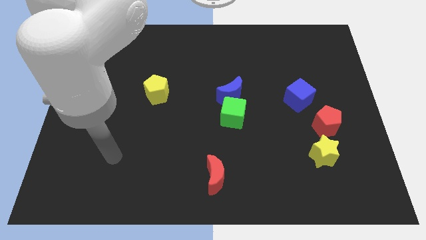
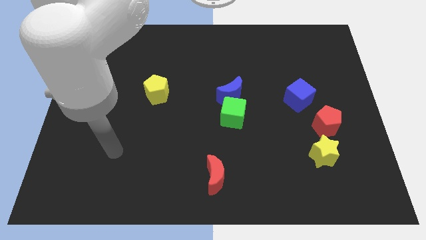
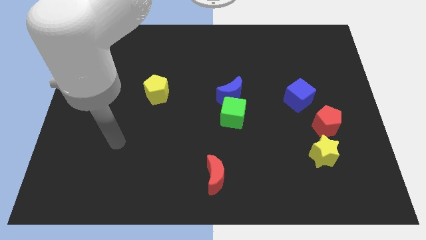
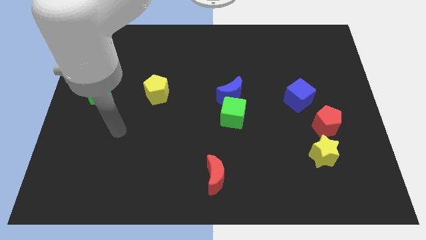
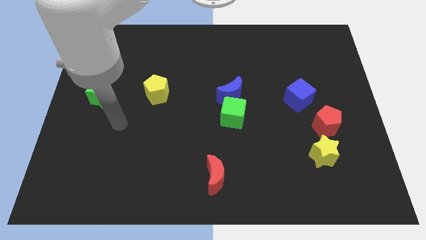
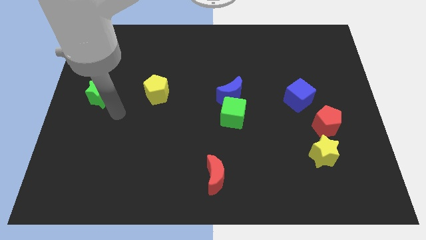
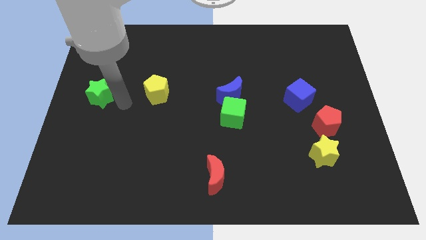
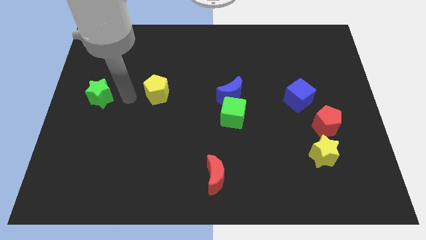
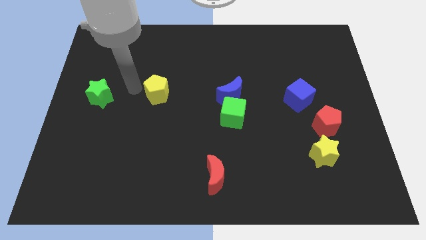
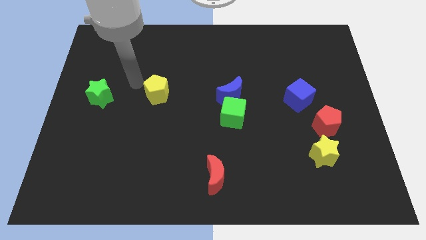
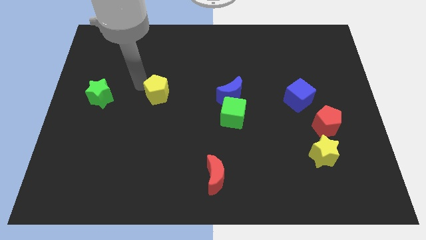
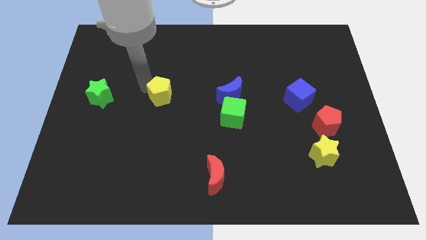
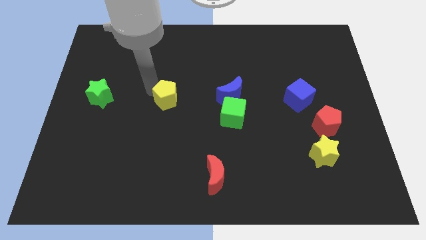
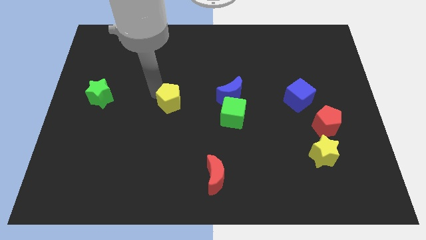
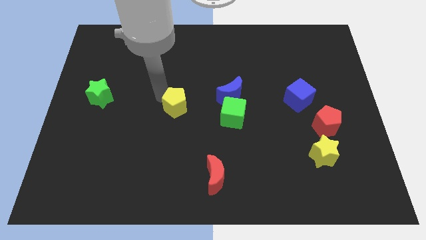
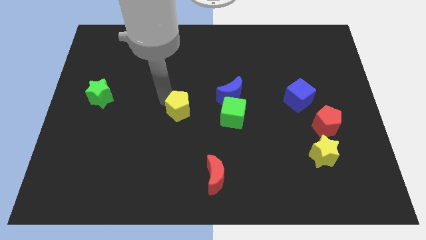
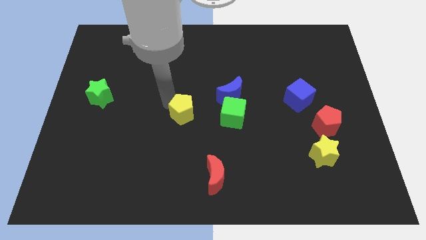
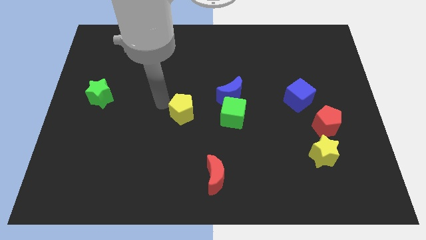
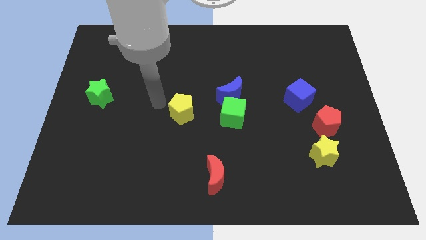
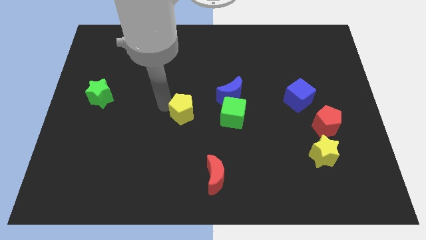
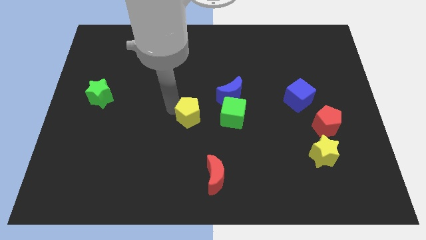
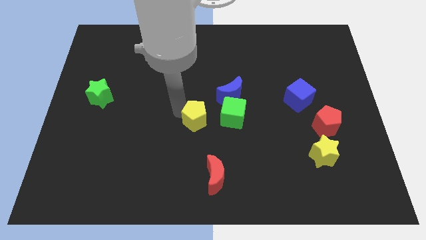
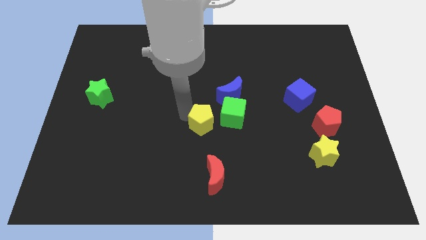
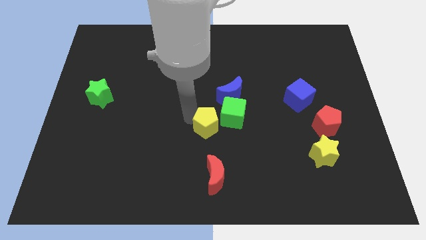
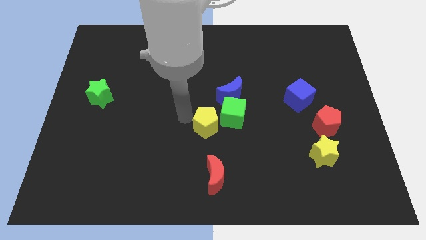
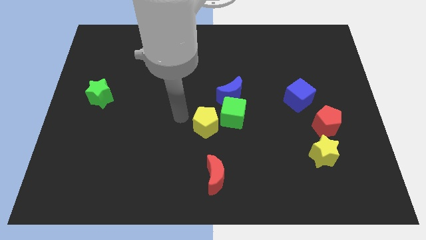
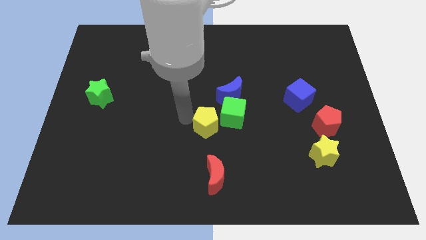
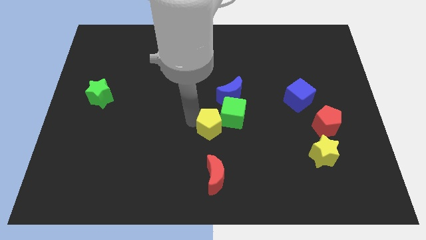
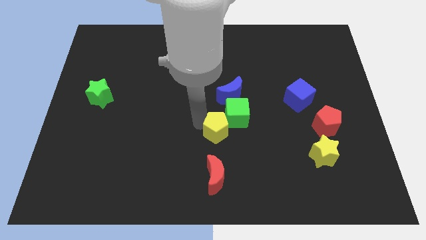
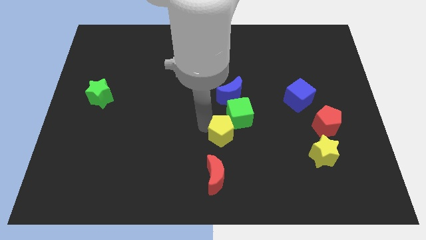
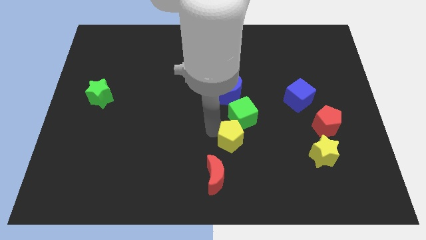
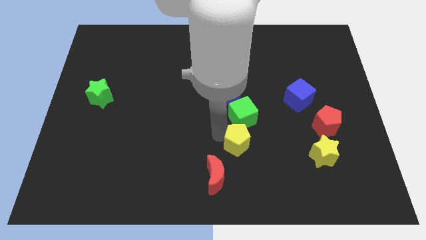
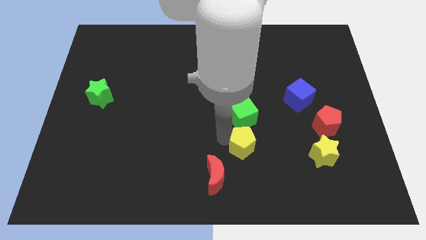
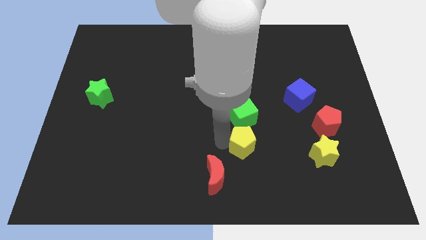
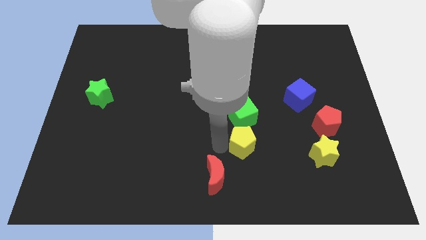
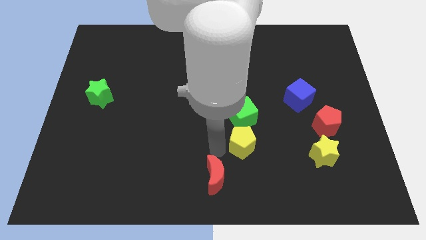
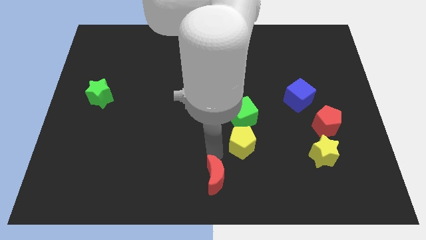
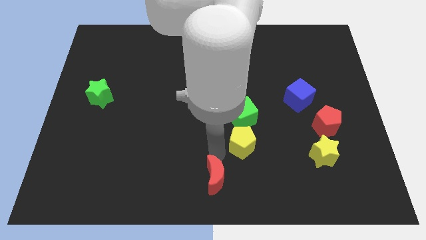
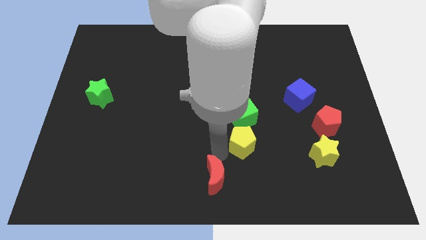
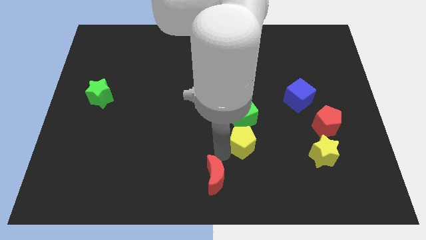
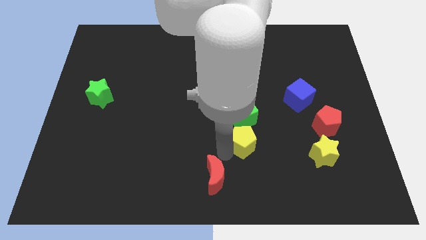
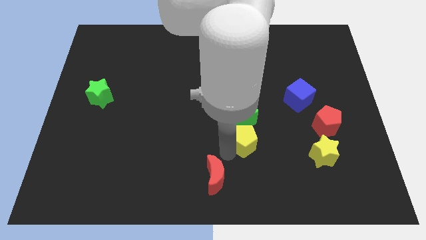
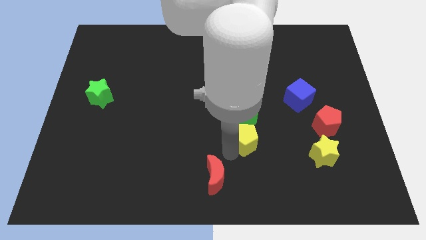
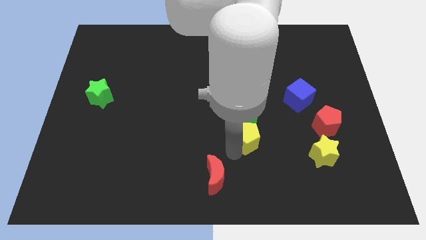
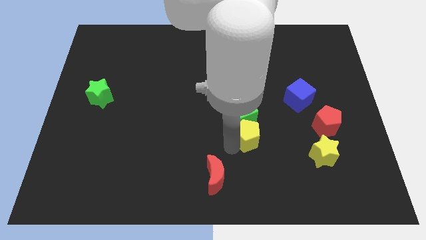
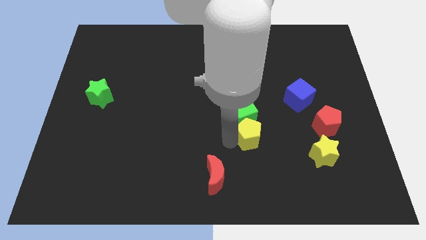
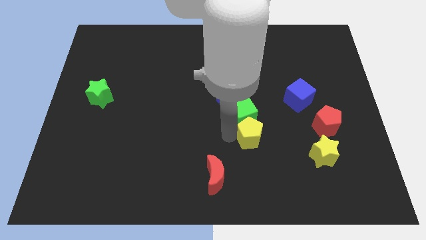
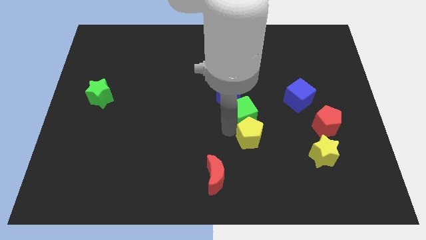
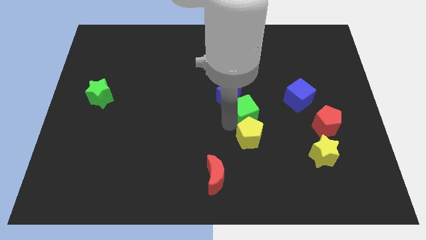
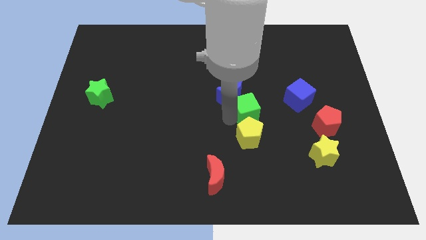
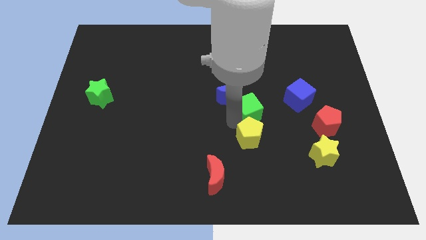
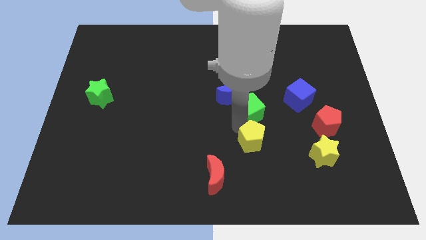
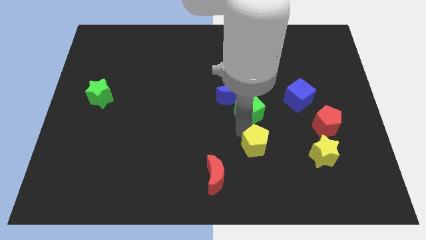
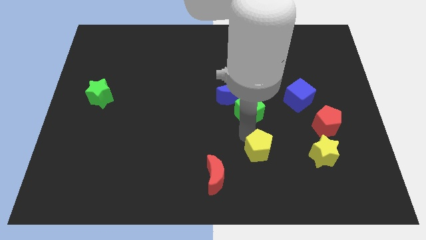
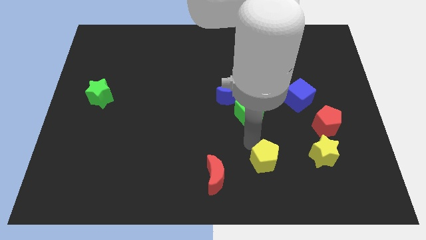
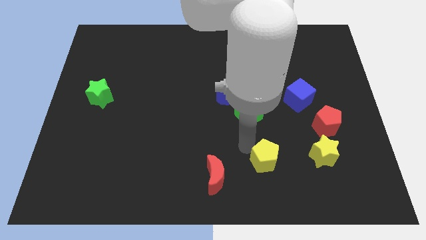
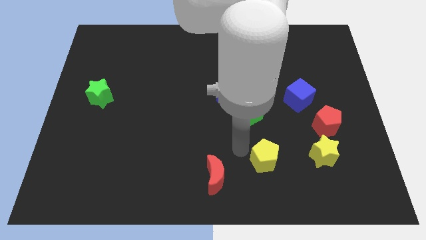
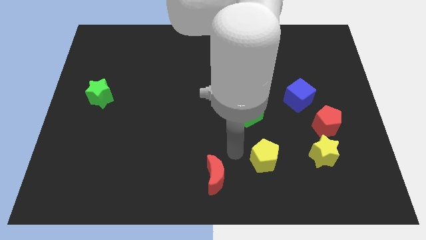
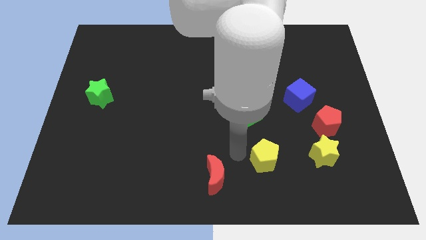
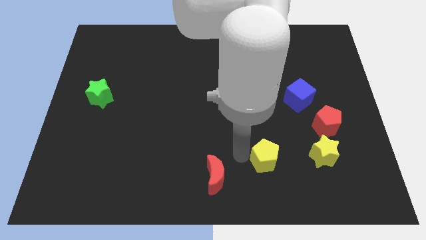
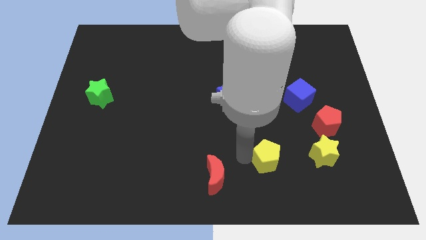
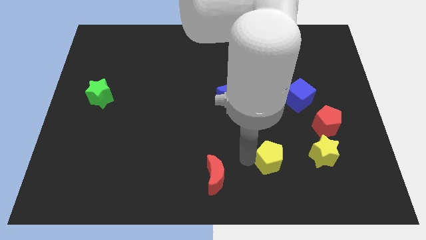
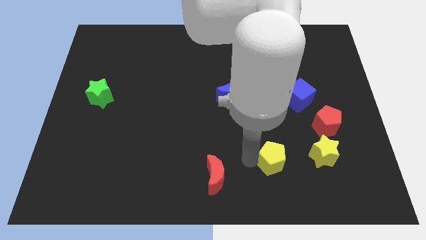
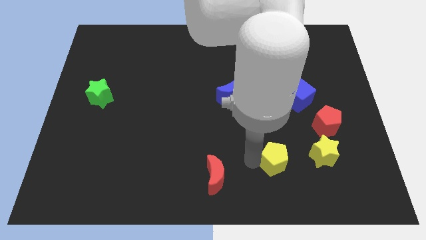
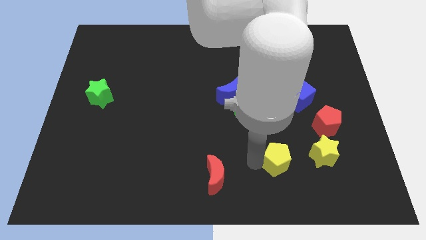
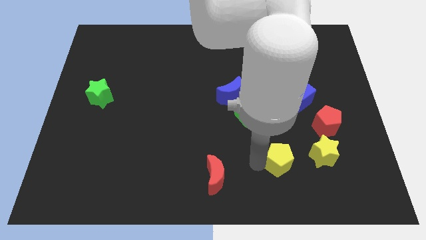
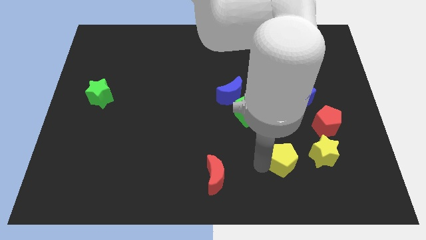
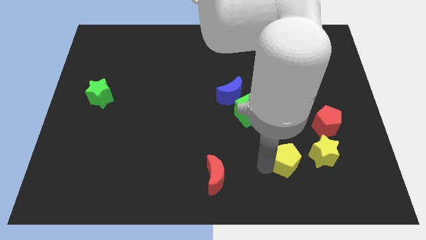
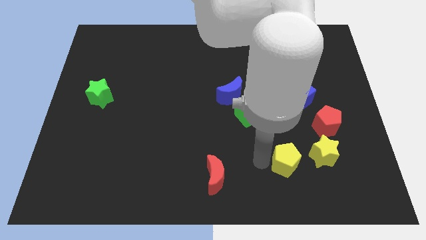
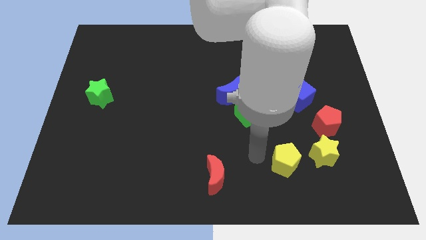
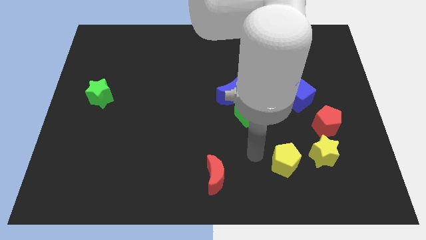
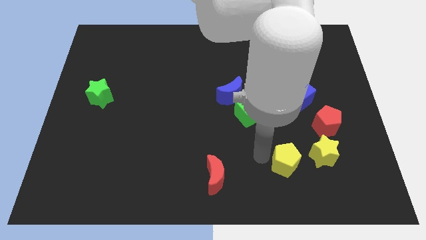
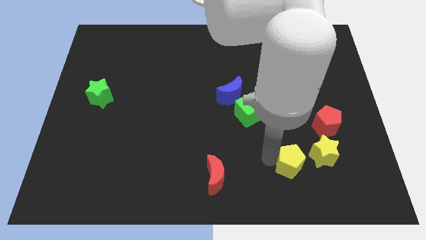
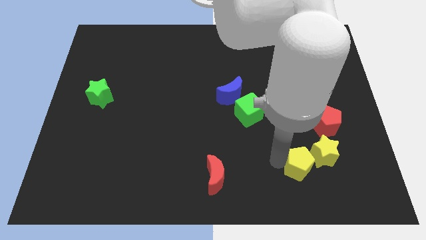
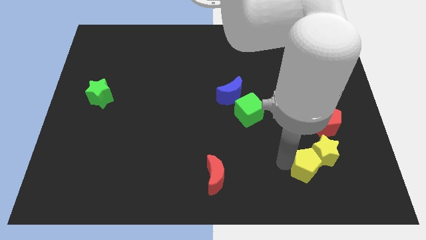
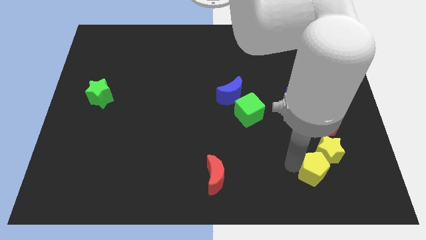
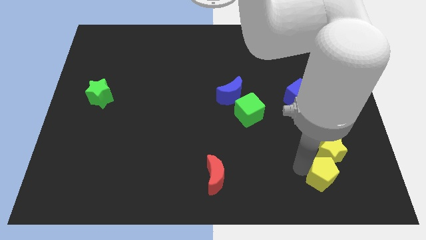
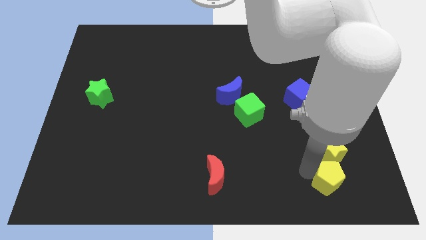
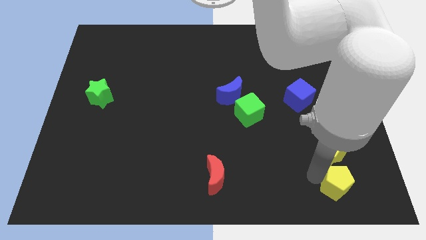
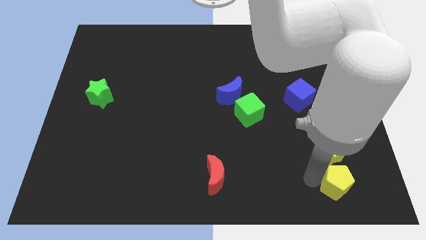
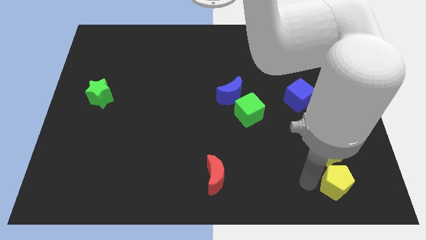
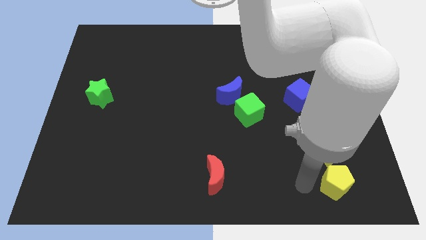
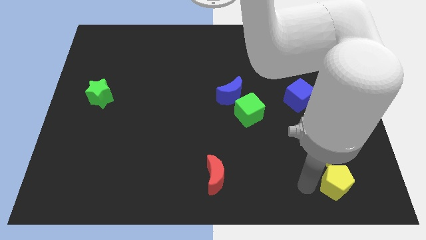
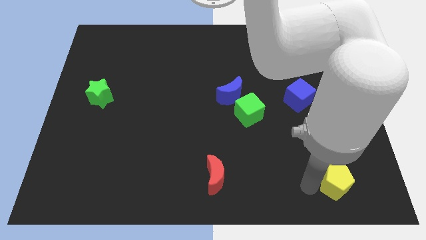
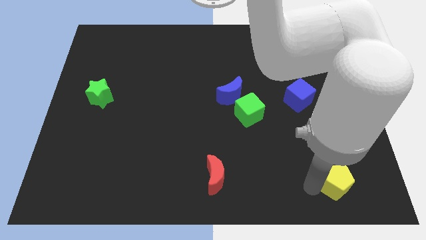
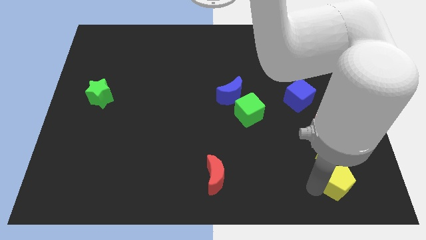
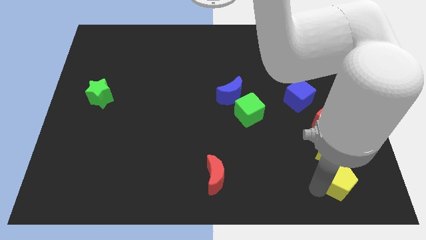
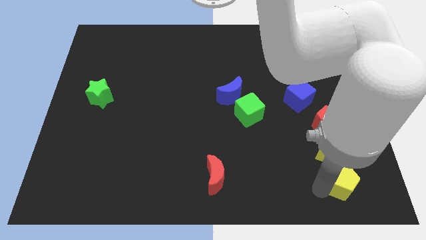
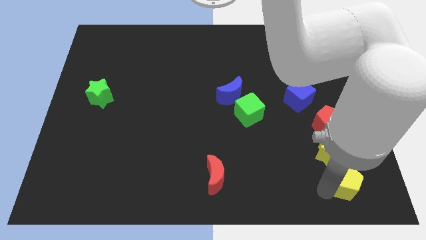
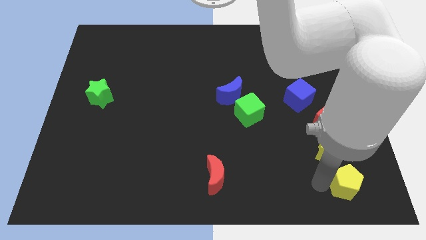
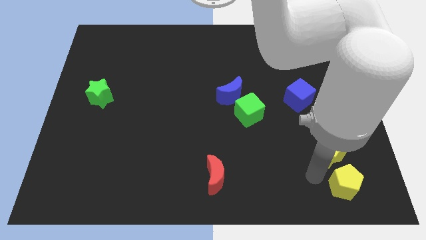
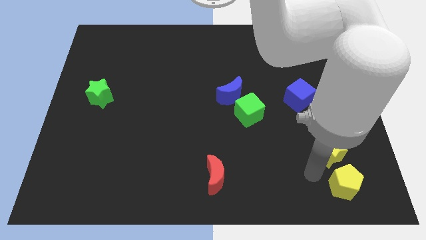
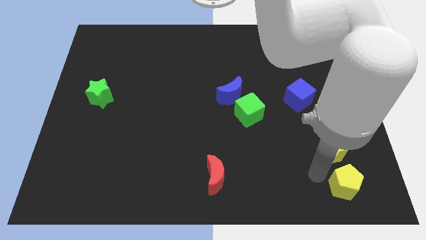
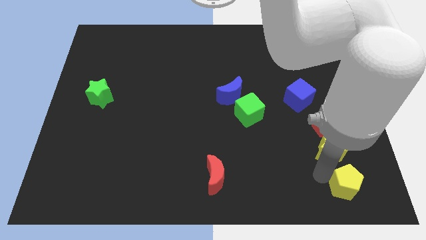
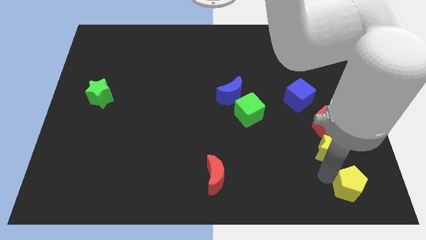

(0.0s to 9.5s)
put the yellow pentagon to the bottom right
